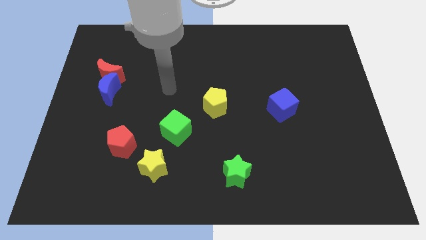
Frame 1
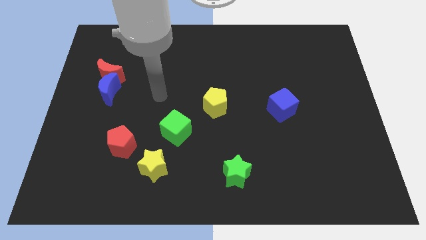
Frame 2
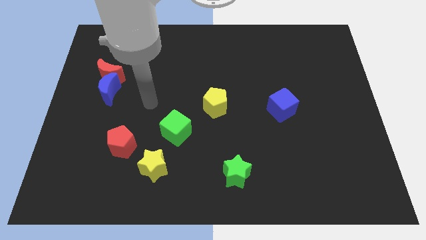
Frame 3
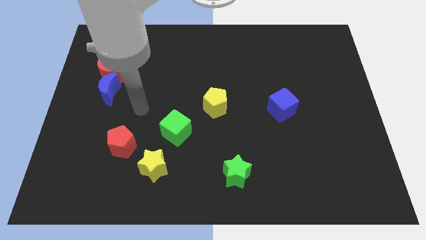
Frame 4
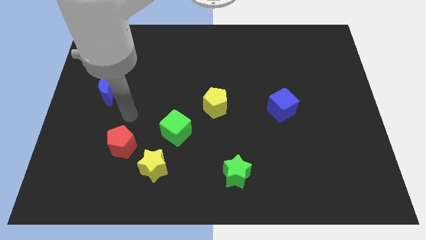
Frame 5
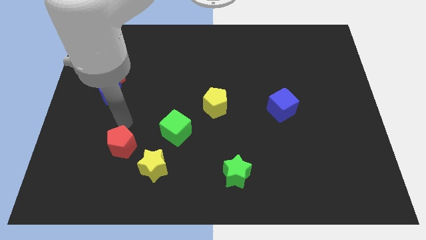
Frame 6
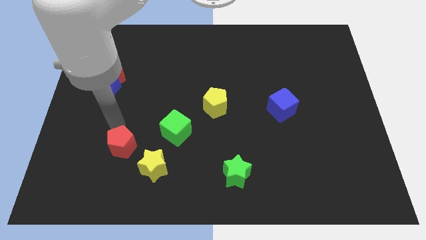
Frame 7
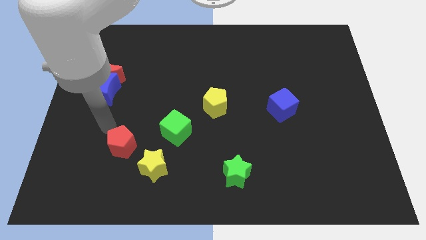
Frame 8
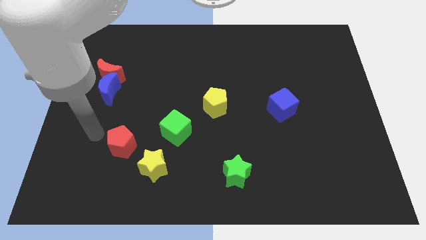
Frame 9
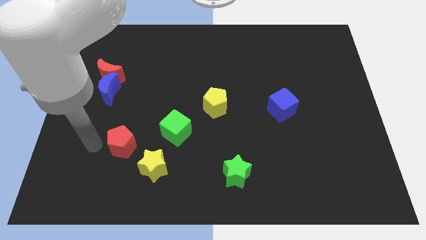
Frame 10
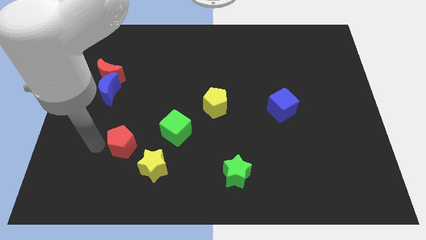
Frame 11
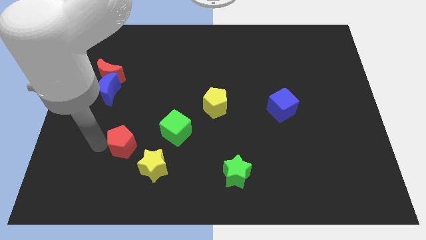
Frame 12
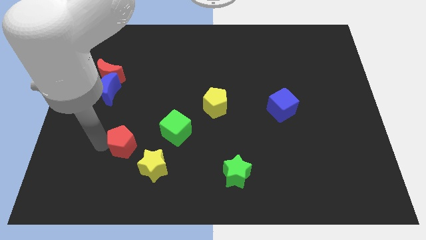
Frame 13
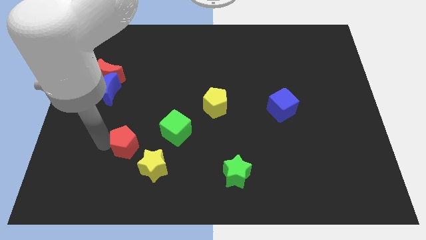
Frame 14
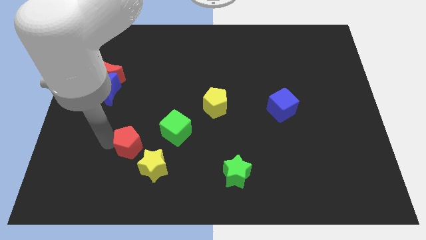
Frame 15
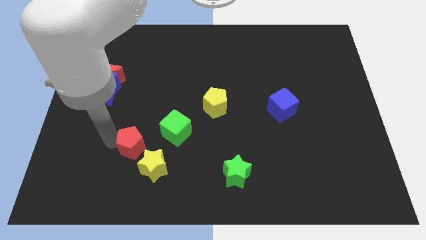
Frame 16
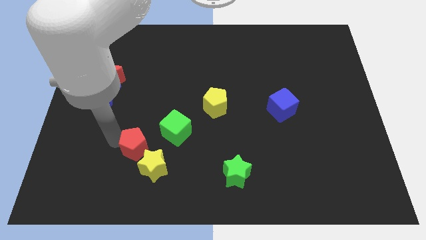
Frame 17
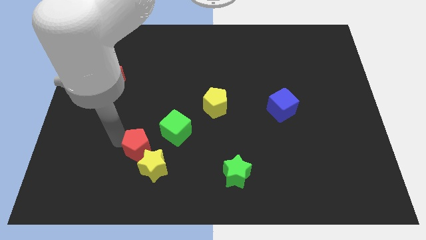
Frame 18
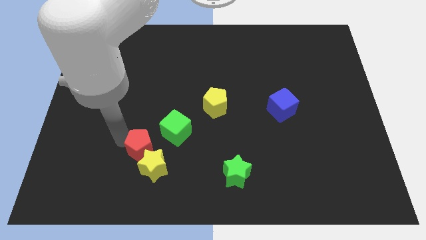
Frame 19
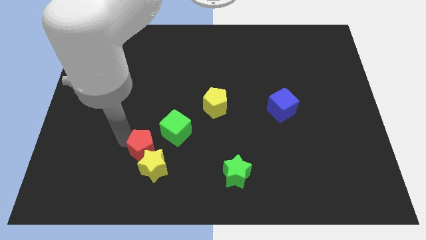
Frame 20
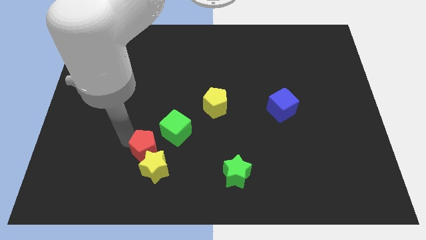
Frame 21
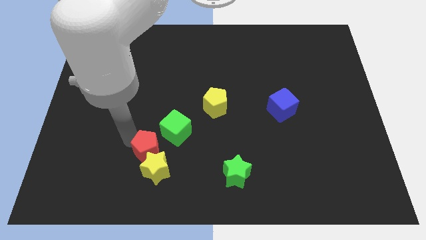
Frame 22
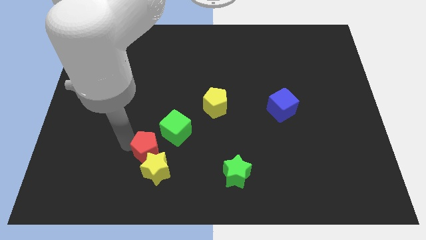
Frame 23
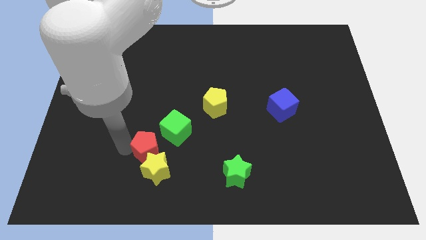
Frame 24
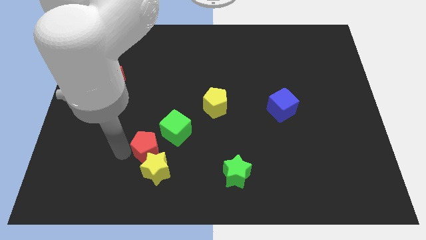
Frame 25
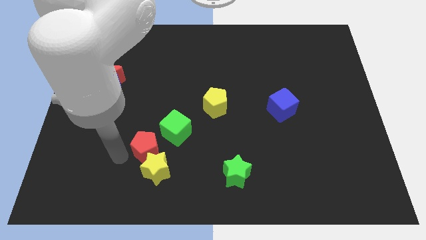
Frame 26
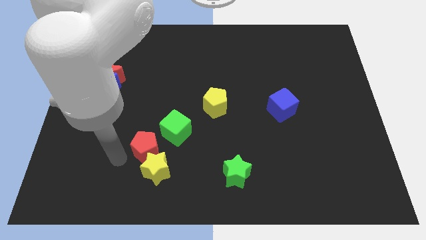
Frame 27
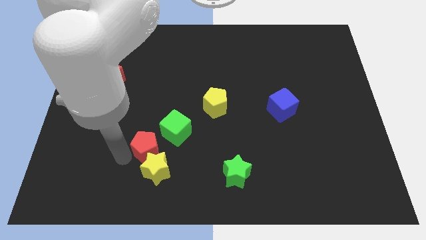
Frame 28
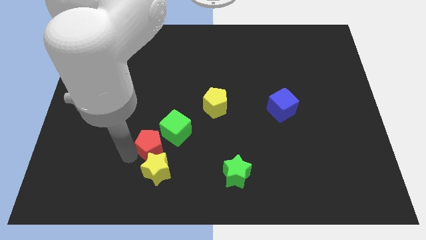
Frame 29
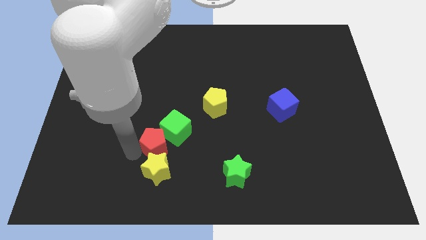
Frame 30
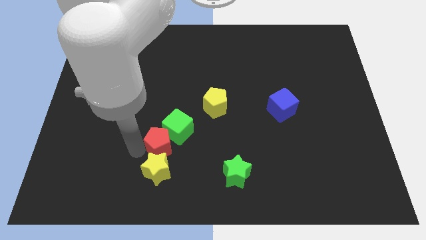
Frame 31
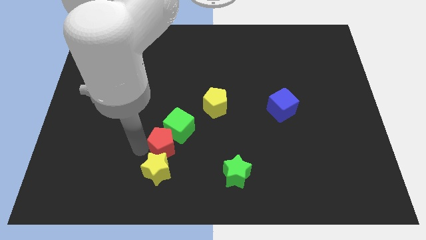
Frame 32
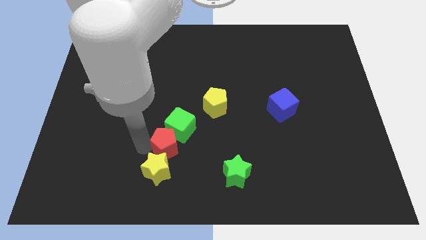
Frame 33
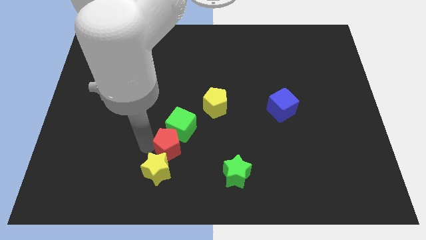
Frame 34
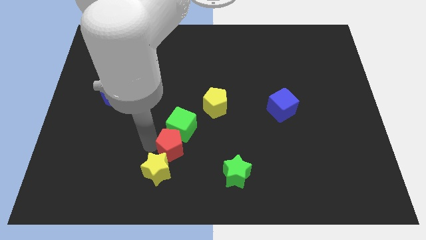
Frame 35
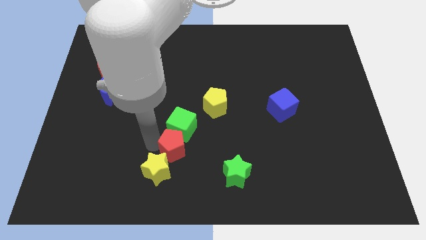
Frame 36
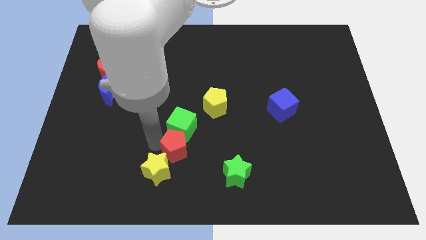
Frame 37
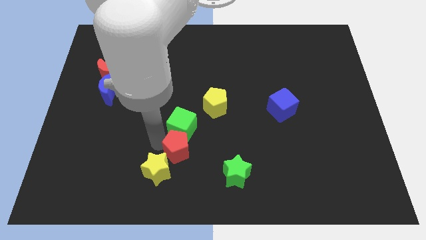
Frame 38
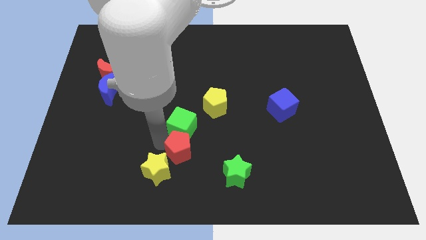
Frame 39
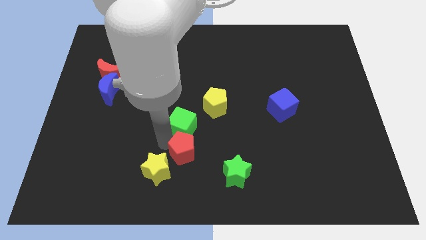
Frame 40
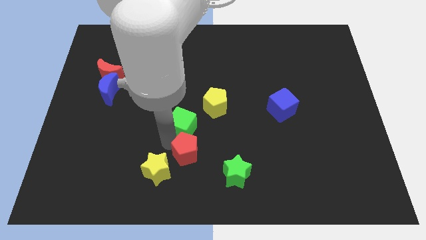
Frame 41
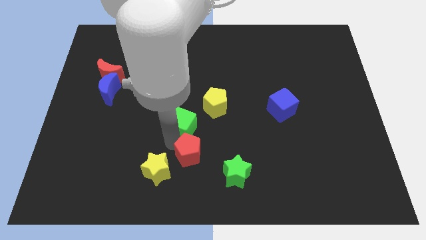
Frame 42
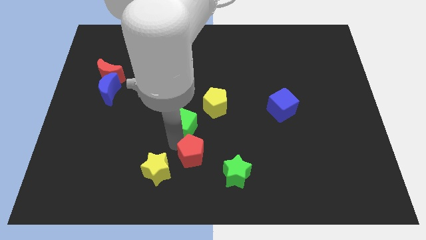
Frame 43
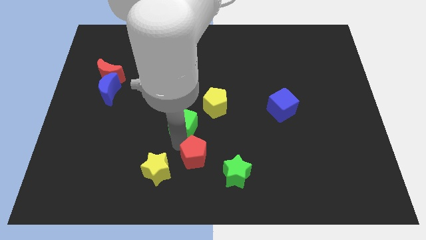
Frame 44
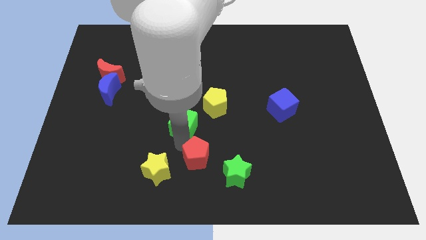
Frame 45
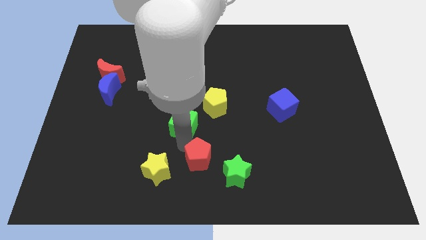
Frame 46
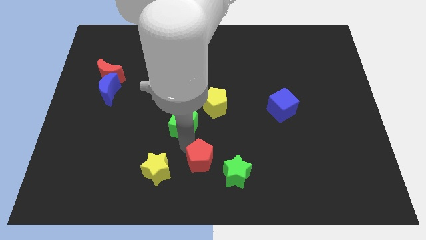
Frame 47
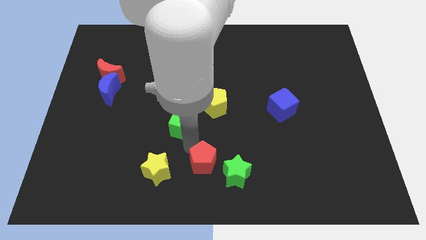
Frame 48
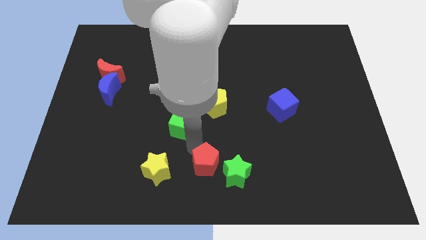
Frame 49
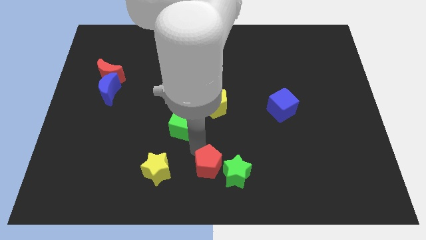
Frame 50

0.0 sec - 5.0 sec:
put the red pentagon to the green star

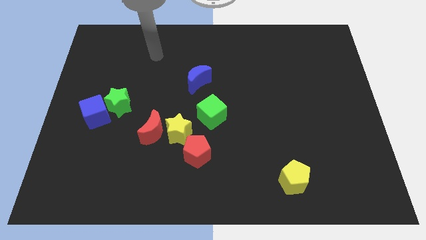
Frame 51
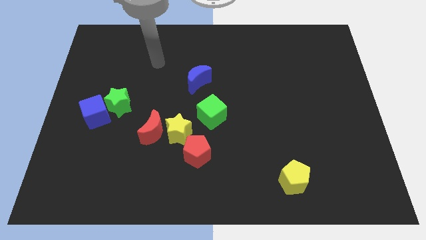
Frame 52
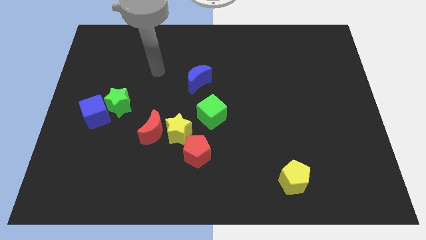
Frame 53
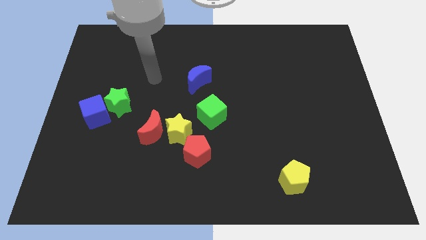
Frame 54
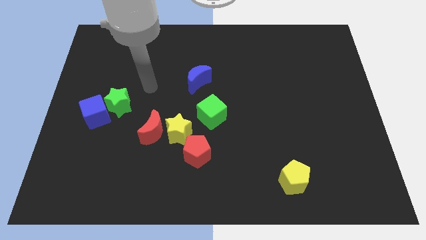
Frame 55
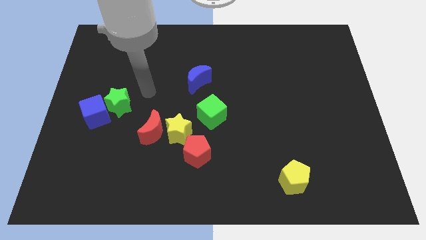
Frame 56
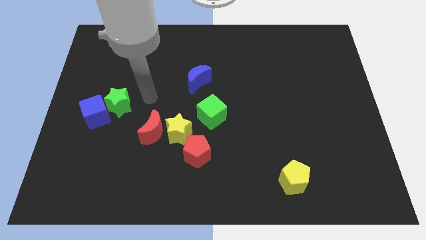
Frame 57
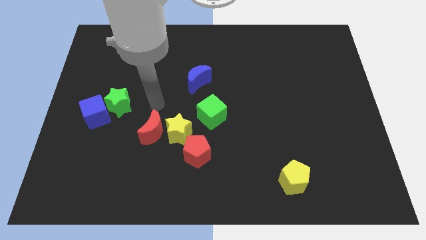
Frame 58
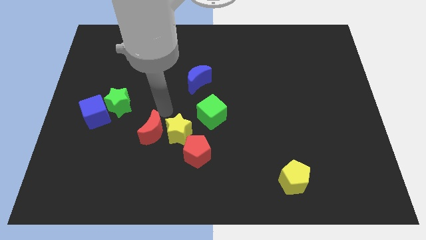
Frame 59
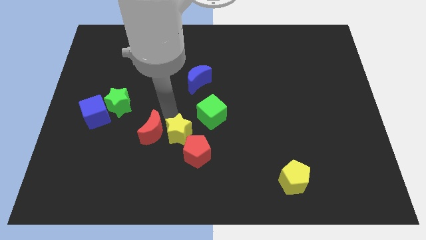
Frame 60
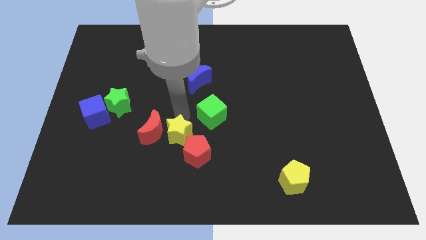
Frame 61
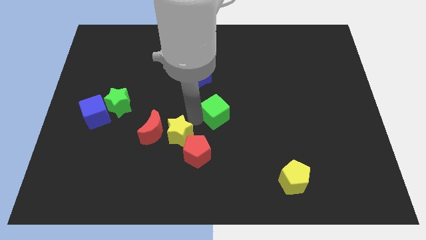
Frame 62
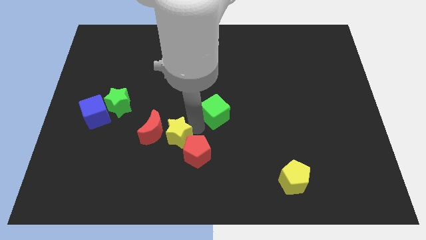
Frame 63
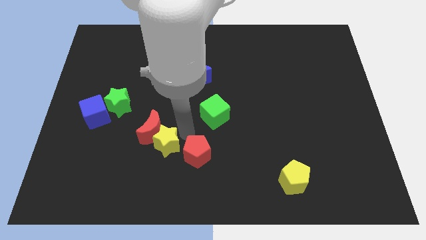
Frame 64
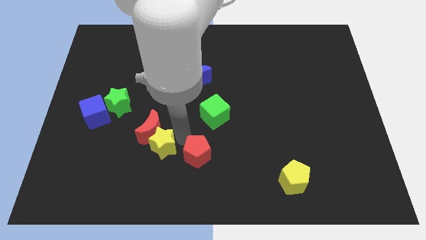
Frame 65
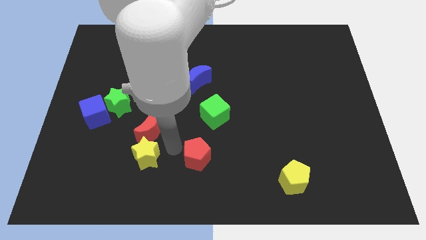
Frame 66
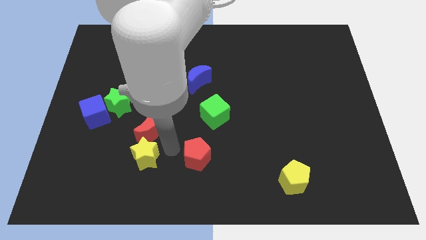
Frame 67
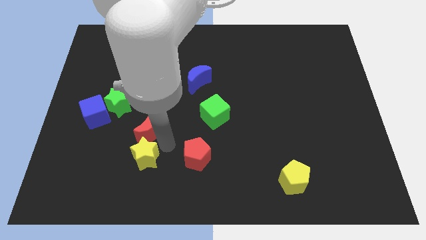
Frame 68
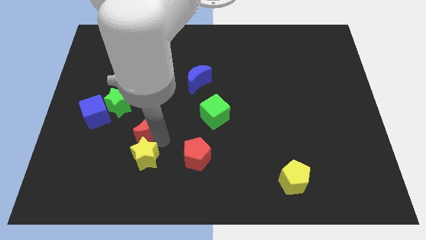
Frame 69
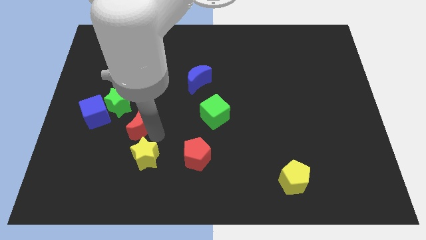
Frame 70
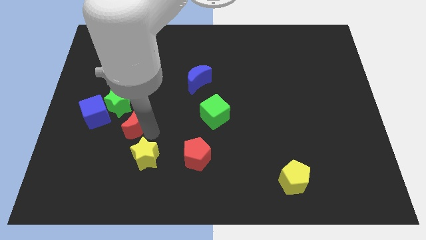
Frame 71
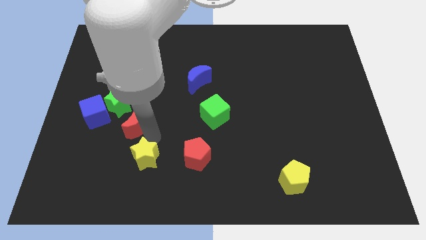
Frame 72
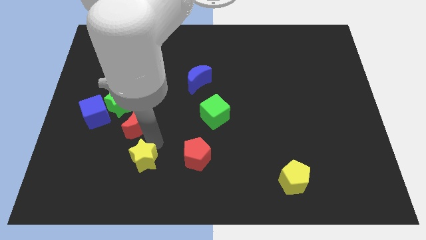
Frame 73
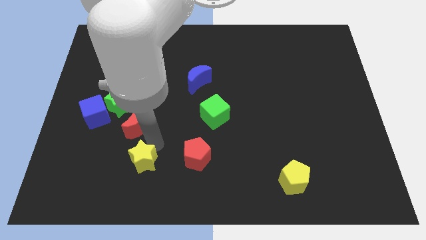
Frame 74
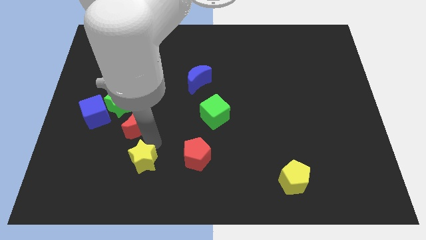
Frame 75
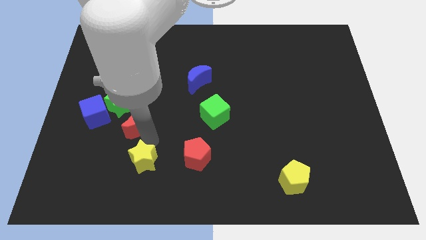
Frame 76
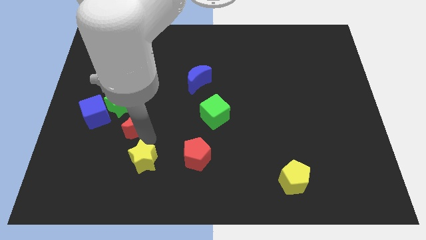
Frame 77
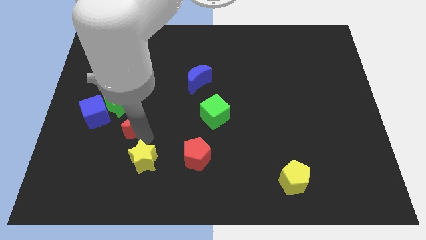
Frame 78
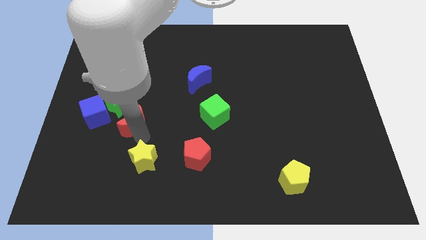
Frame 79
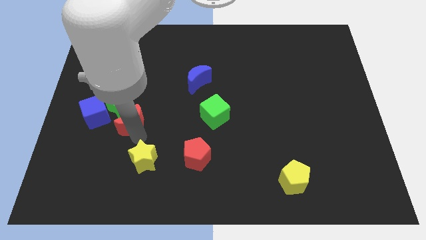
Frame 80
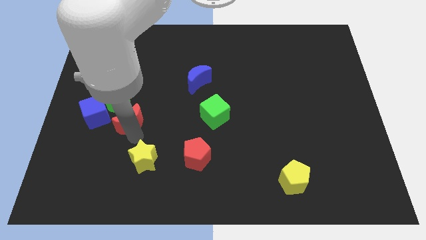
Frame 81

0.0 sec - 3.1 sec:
put the red moon towards the green star
